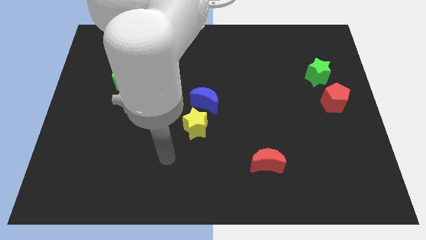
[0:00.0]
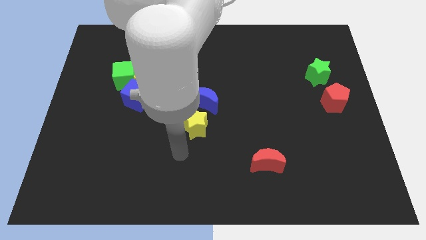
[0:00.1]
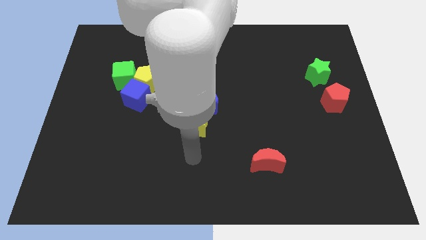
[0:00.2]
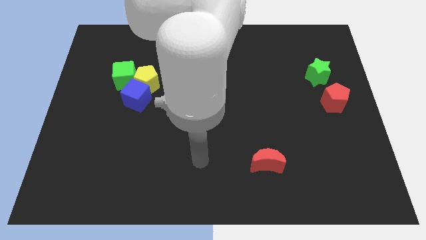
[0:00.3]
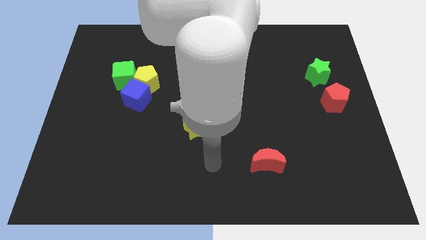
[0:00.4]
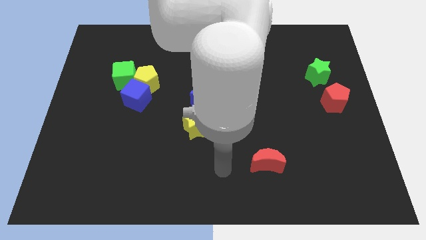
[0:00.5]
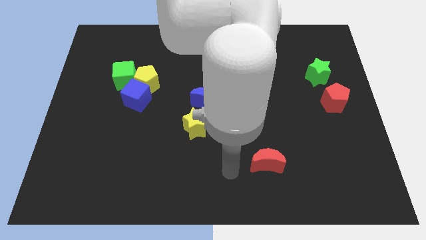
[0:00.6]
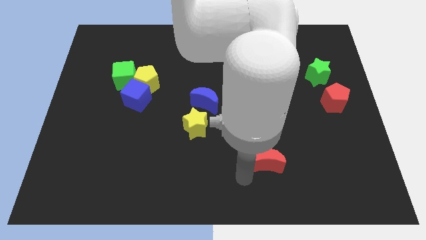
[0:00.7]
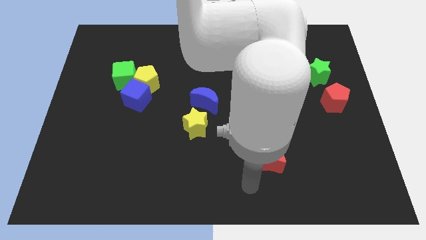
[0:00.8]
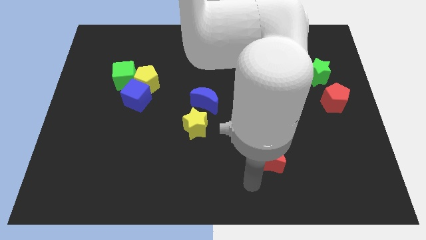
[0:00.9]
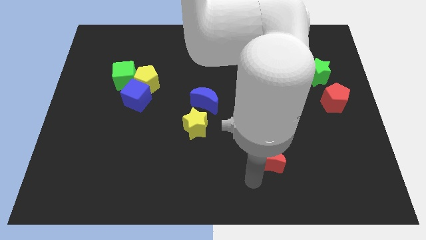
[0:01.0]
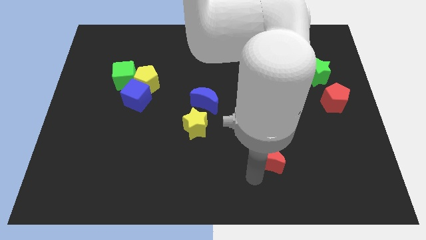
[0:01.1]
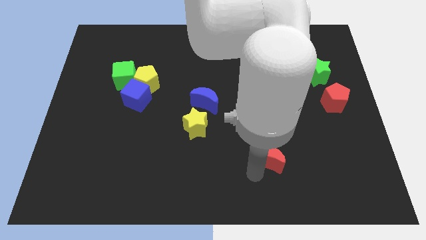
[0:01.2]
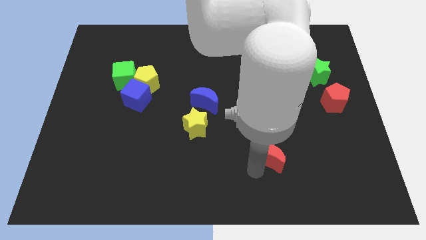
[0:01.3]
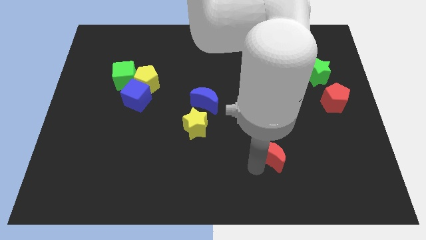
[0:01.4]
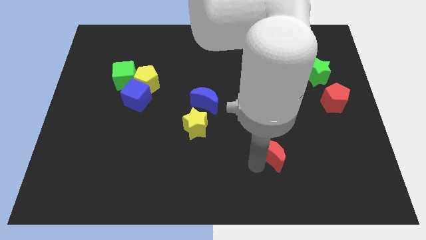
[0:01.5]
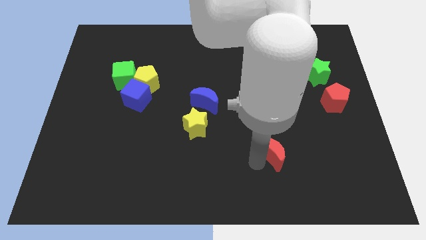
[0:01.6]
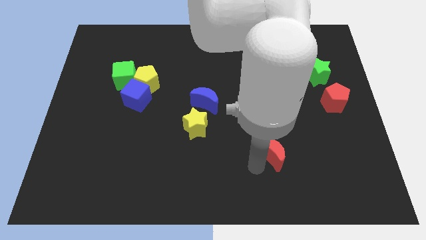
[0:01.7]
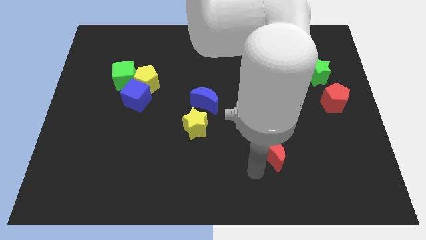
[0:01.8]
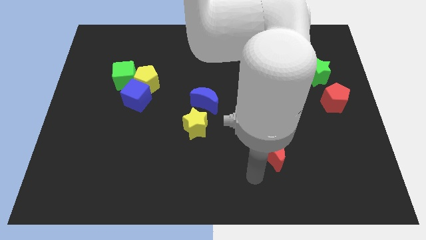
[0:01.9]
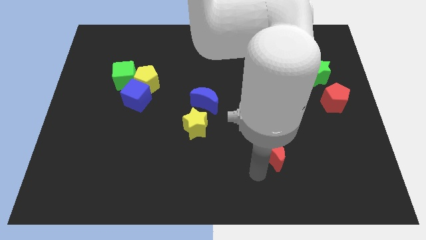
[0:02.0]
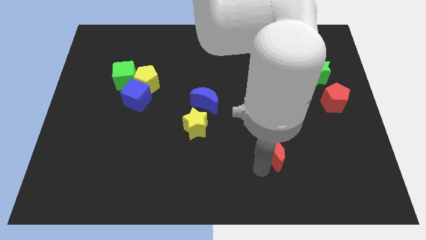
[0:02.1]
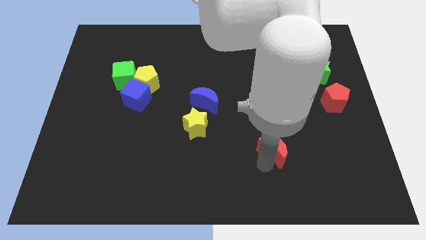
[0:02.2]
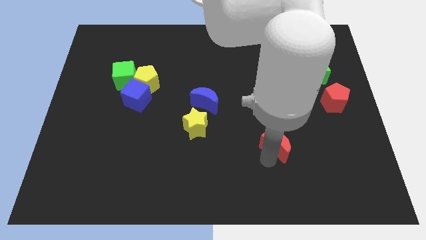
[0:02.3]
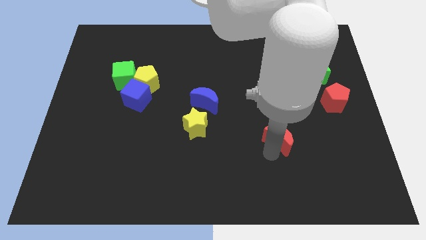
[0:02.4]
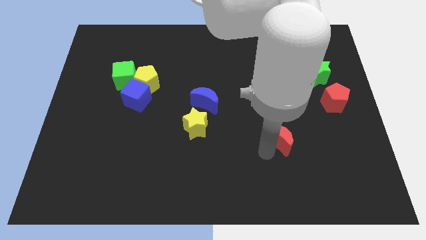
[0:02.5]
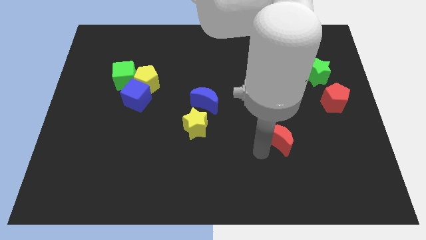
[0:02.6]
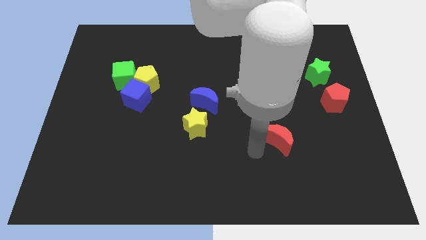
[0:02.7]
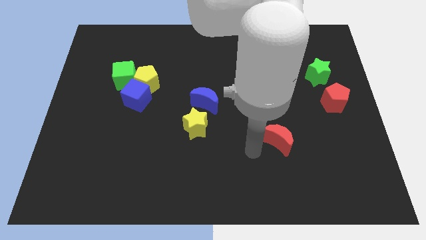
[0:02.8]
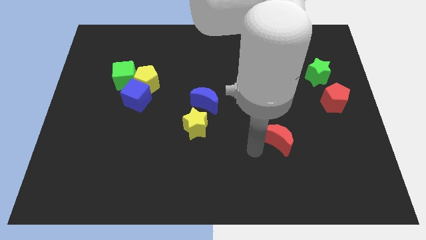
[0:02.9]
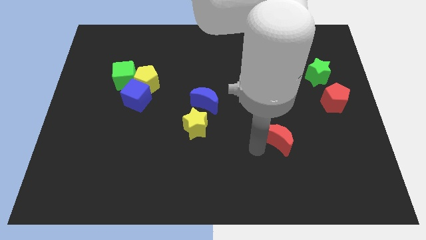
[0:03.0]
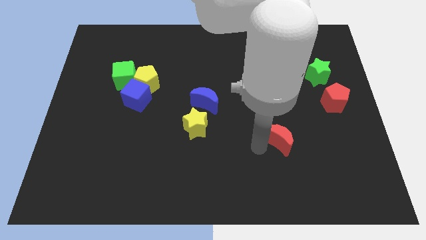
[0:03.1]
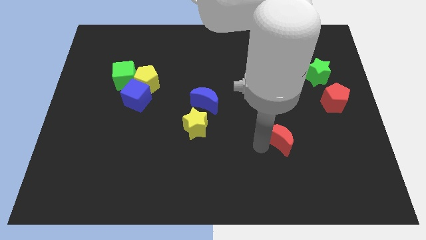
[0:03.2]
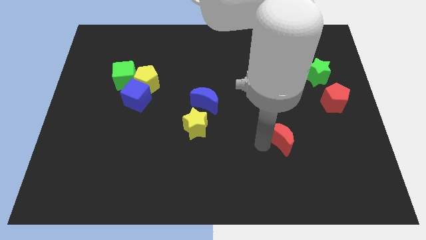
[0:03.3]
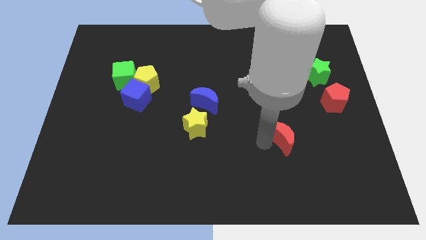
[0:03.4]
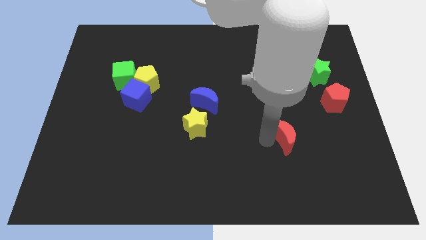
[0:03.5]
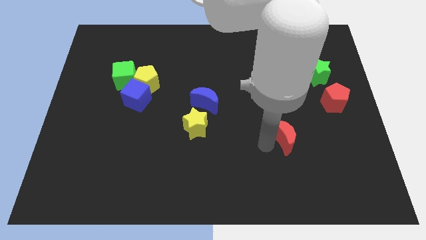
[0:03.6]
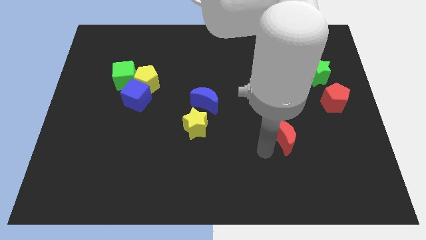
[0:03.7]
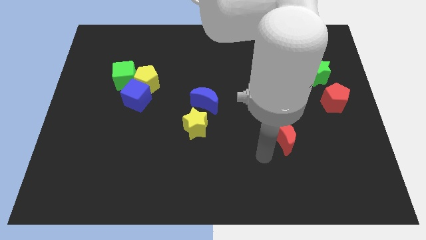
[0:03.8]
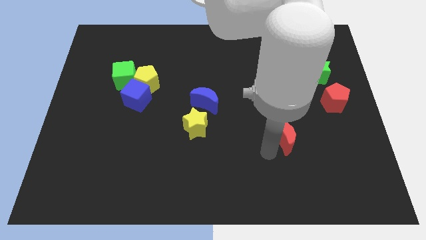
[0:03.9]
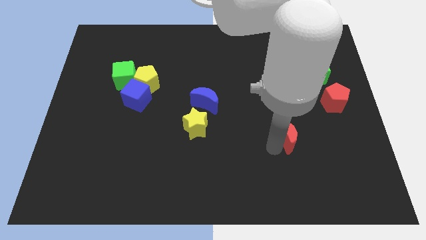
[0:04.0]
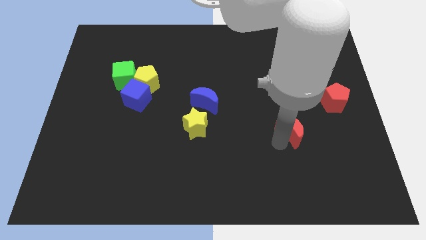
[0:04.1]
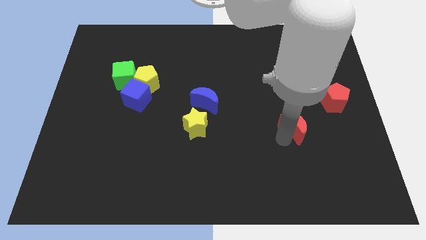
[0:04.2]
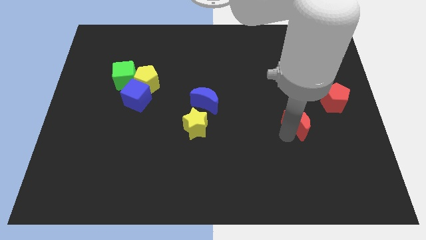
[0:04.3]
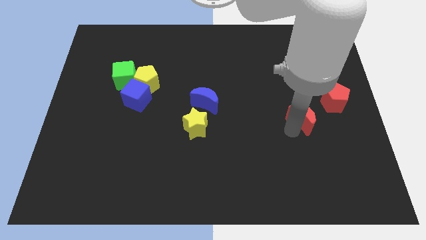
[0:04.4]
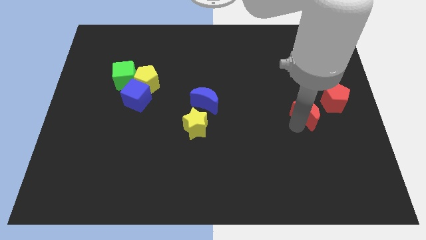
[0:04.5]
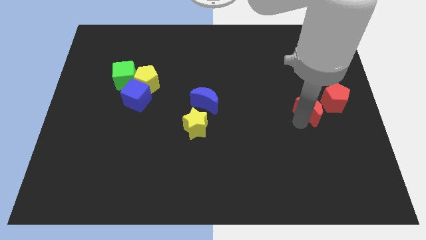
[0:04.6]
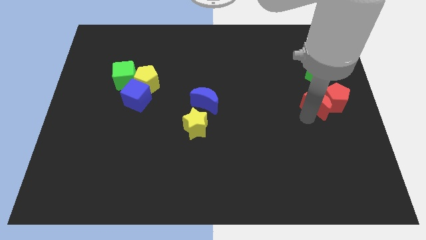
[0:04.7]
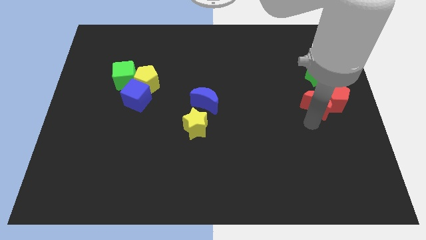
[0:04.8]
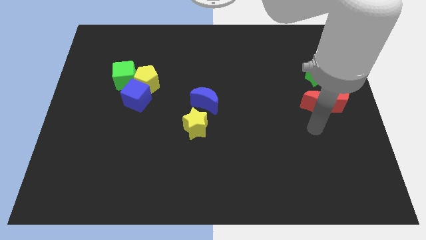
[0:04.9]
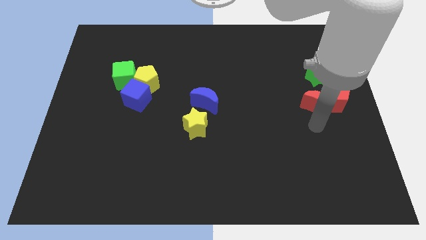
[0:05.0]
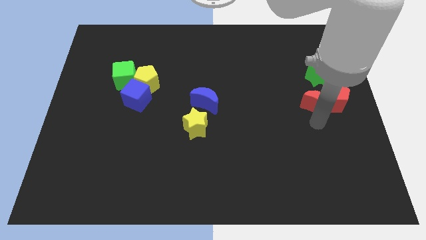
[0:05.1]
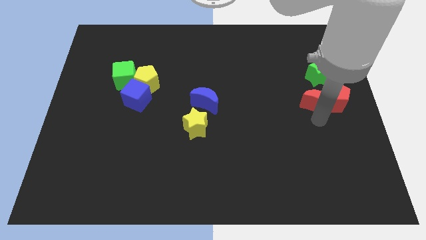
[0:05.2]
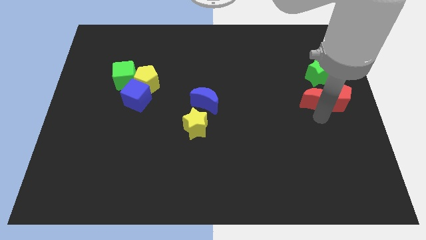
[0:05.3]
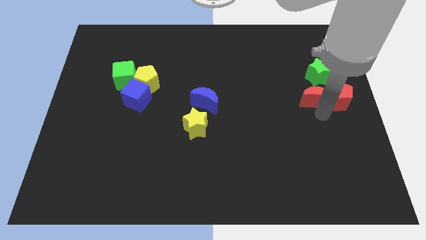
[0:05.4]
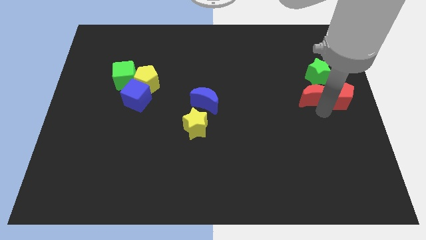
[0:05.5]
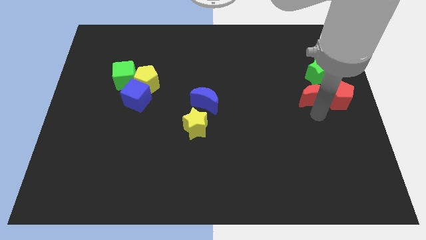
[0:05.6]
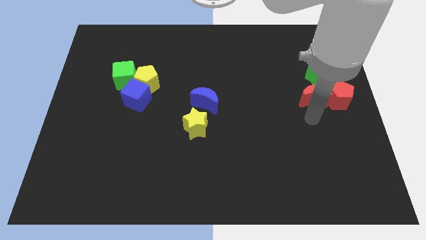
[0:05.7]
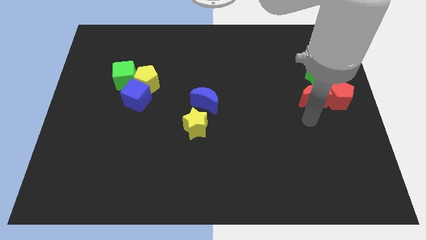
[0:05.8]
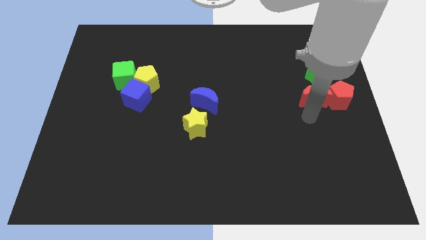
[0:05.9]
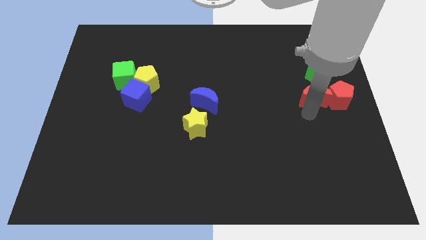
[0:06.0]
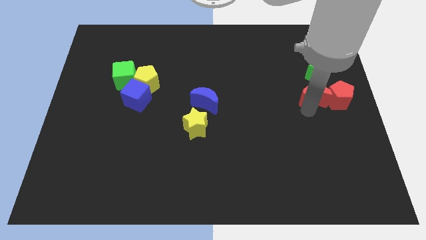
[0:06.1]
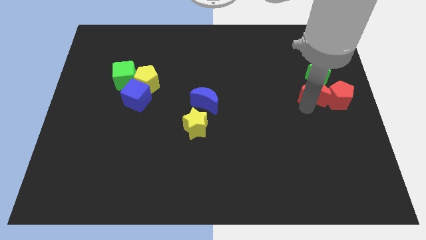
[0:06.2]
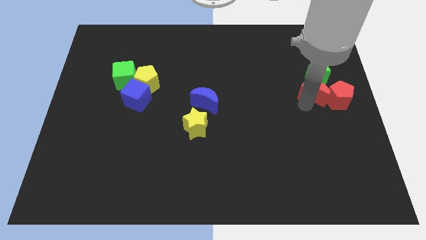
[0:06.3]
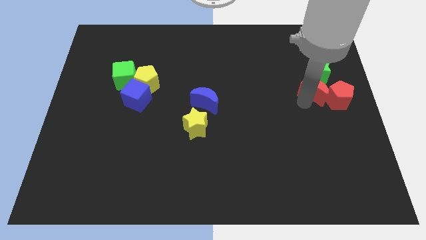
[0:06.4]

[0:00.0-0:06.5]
move the red moon close to the green star
